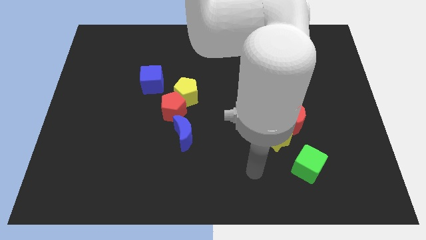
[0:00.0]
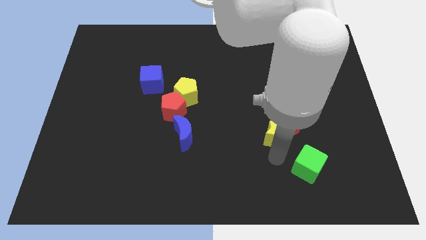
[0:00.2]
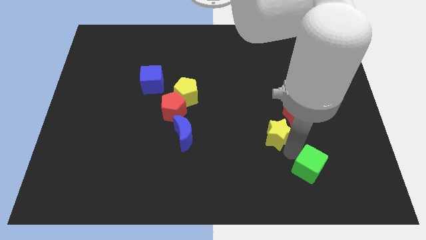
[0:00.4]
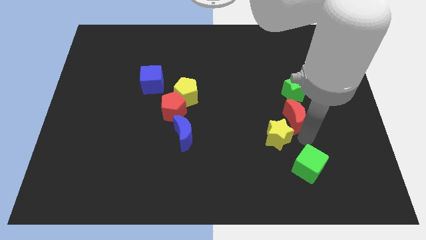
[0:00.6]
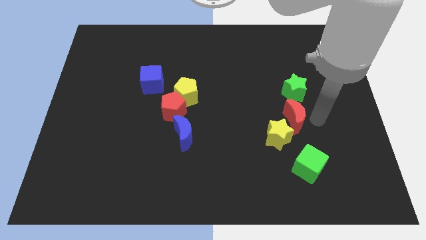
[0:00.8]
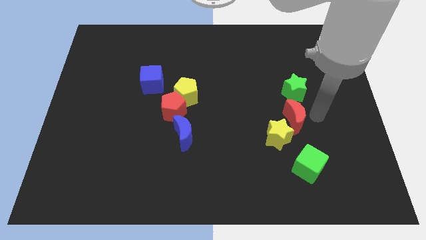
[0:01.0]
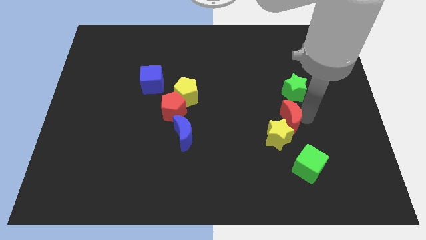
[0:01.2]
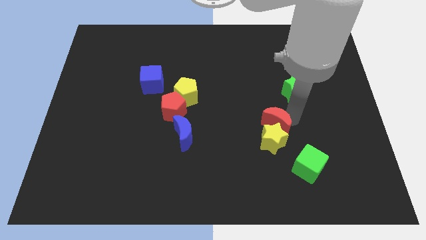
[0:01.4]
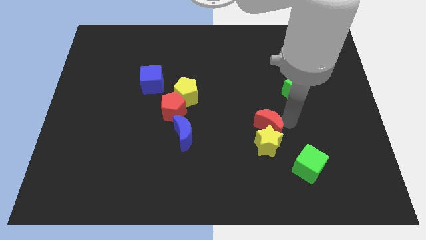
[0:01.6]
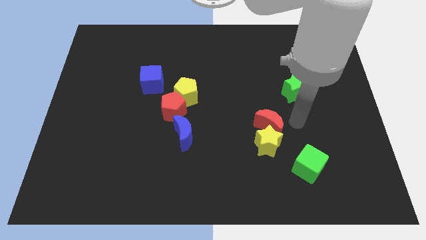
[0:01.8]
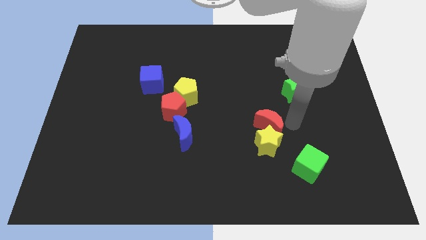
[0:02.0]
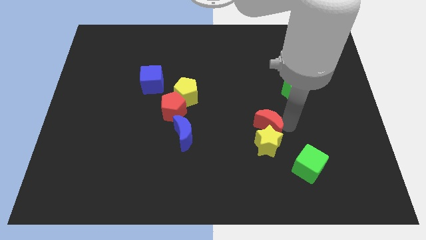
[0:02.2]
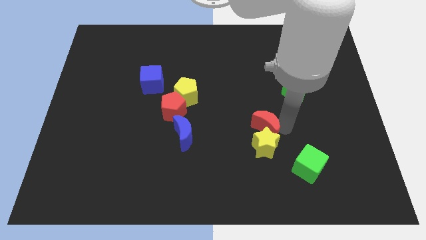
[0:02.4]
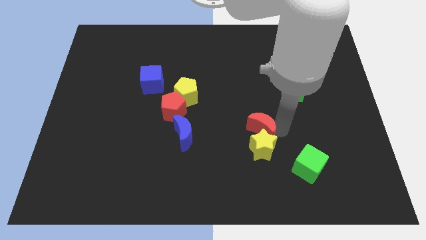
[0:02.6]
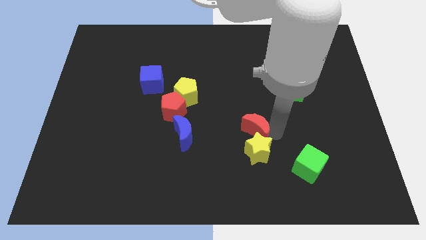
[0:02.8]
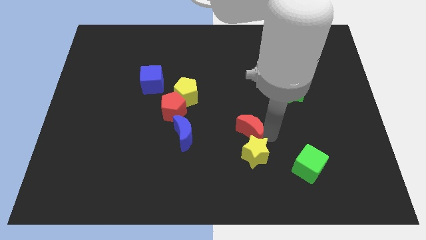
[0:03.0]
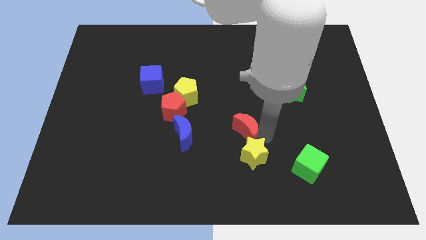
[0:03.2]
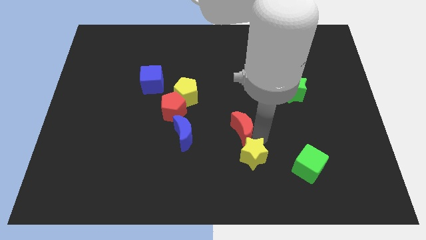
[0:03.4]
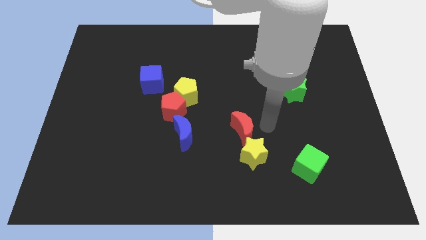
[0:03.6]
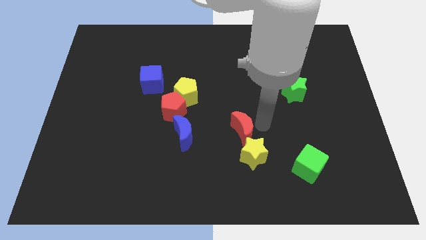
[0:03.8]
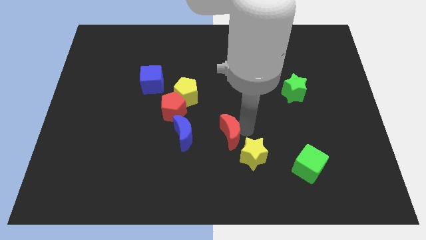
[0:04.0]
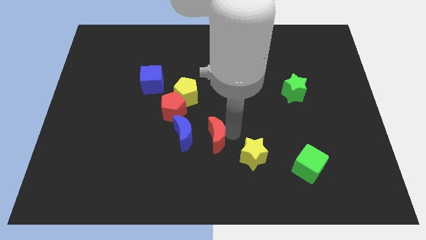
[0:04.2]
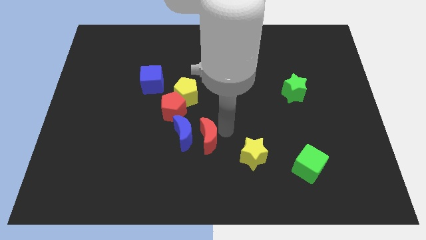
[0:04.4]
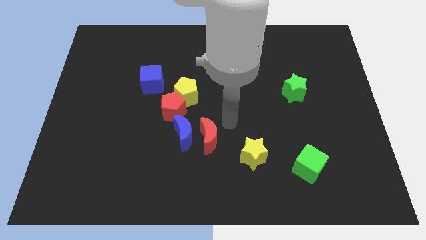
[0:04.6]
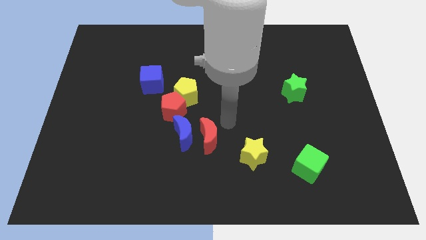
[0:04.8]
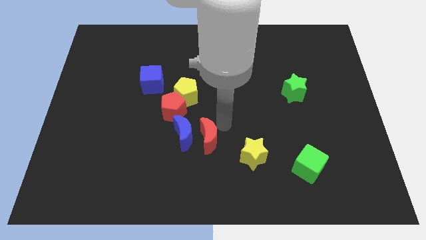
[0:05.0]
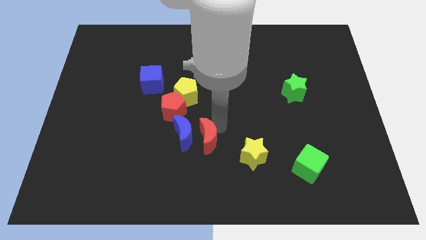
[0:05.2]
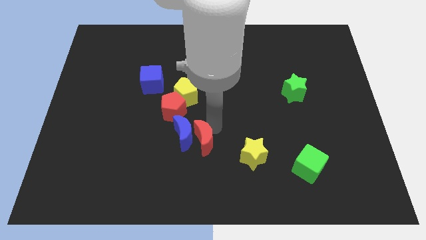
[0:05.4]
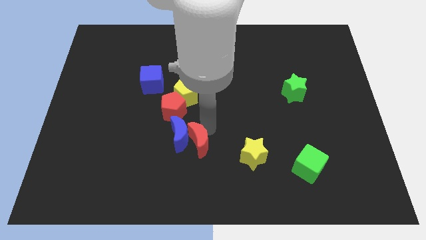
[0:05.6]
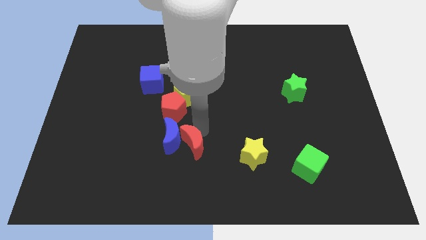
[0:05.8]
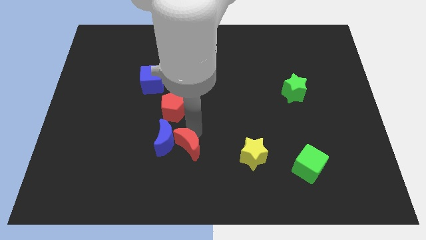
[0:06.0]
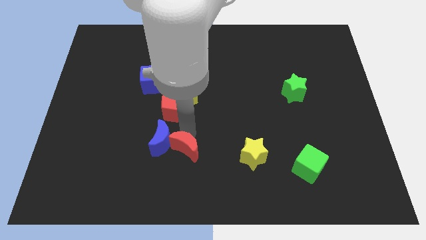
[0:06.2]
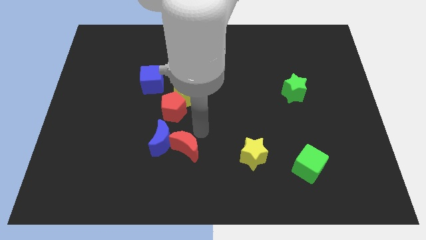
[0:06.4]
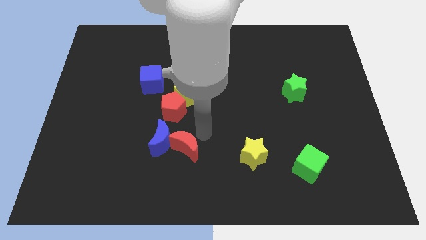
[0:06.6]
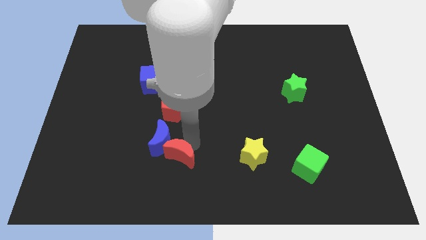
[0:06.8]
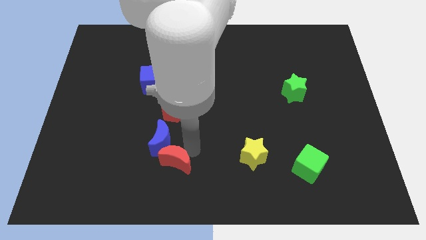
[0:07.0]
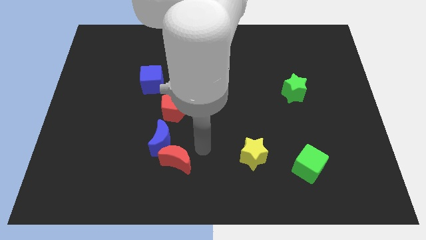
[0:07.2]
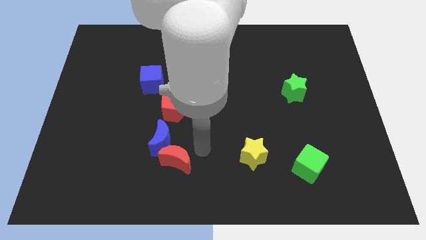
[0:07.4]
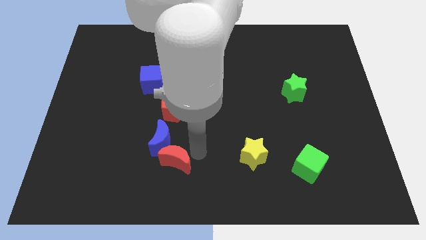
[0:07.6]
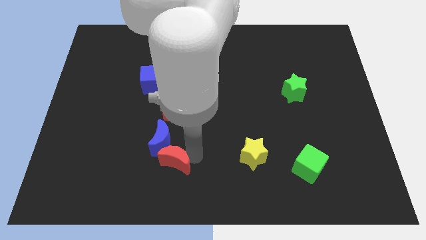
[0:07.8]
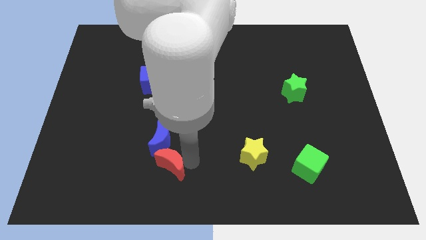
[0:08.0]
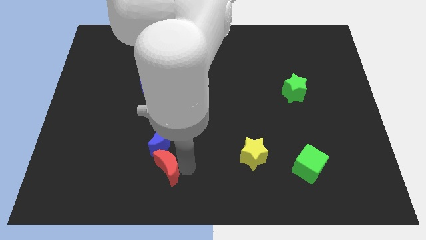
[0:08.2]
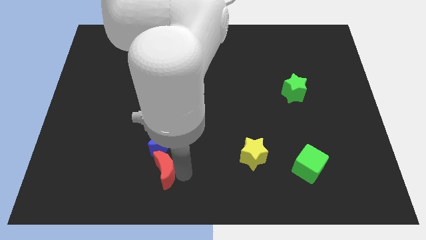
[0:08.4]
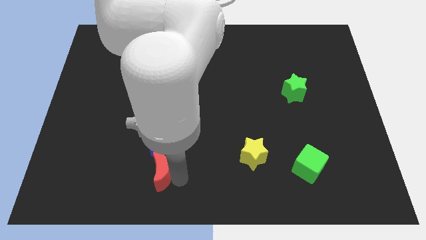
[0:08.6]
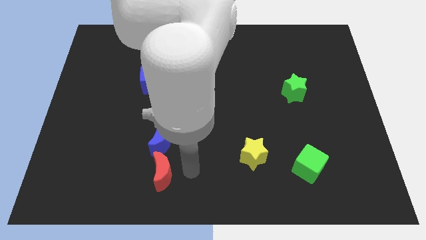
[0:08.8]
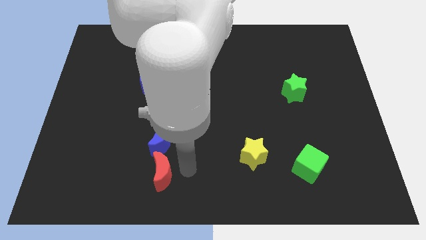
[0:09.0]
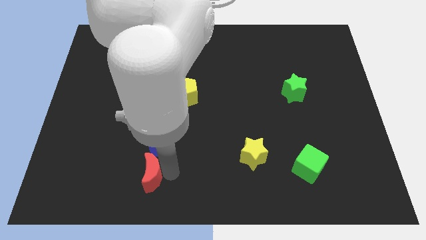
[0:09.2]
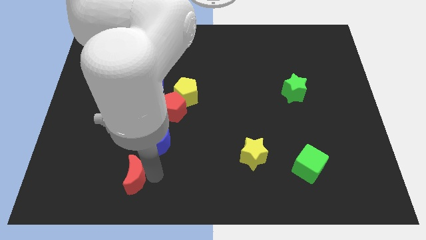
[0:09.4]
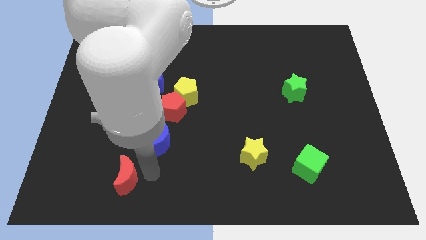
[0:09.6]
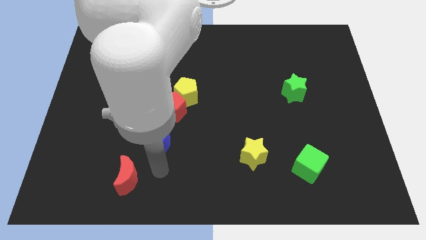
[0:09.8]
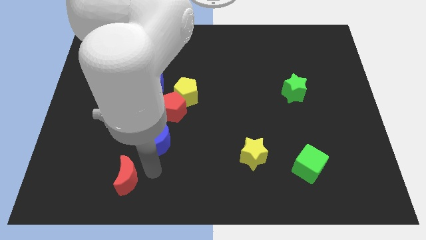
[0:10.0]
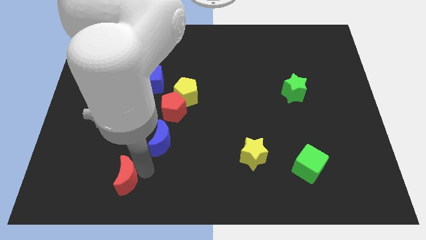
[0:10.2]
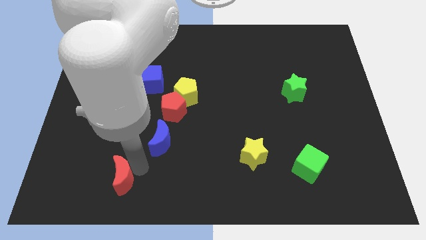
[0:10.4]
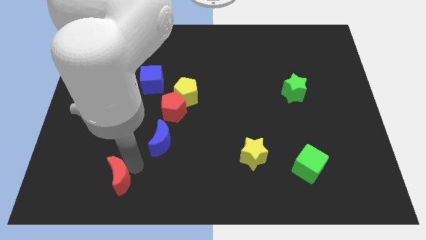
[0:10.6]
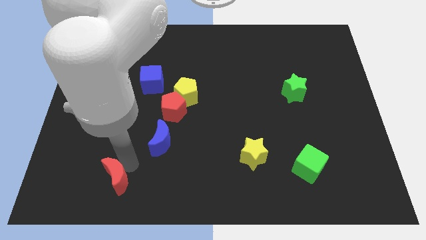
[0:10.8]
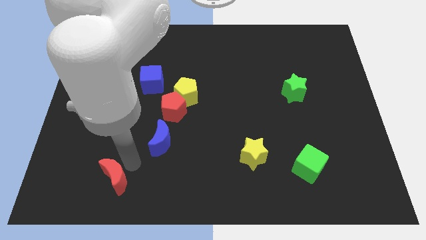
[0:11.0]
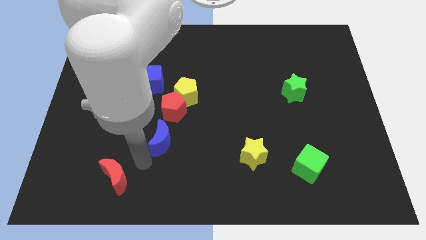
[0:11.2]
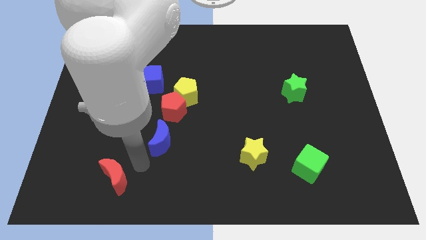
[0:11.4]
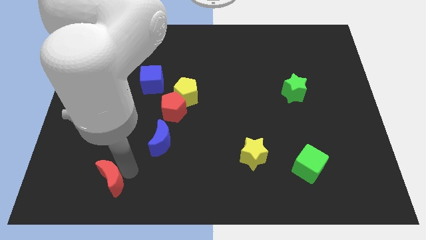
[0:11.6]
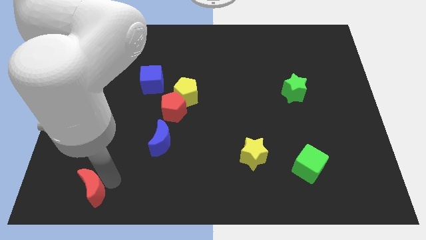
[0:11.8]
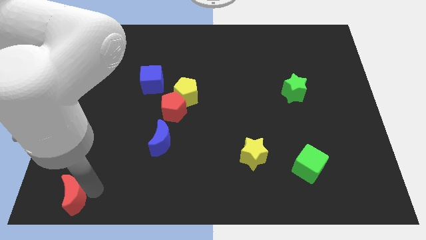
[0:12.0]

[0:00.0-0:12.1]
put the red moon to the bottom left corner
